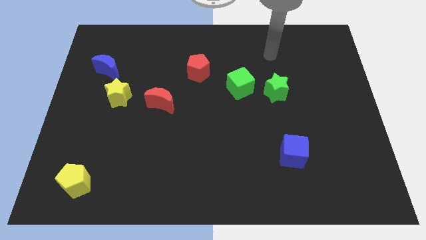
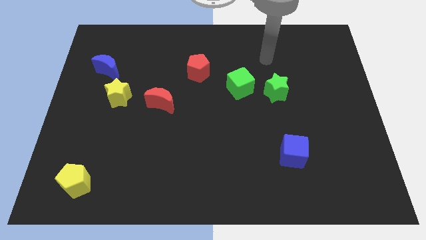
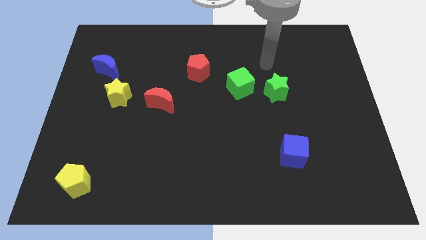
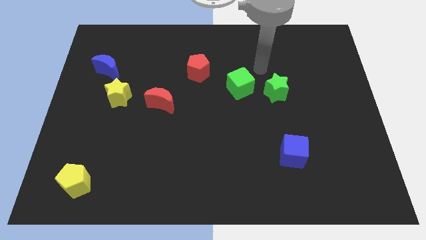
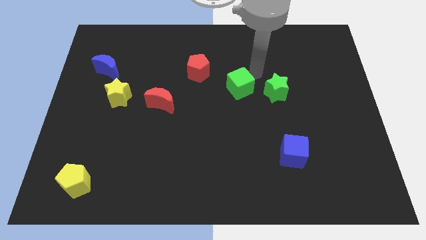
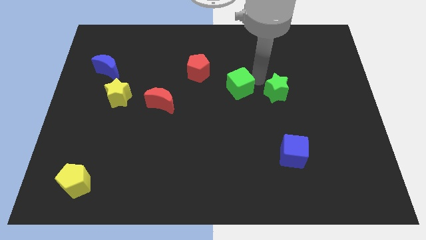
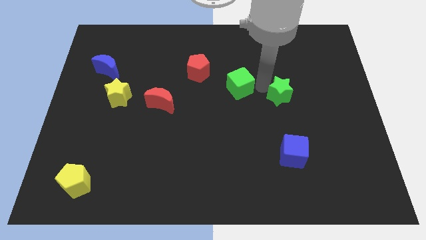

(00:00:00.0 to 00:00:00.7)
separate the green cube from the green star

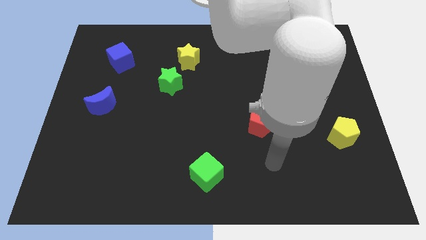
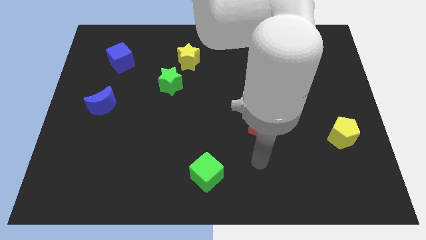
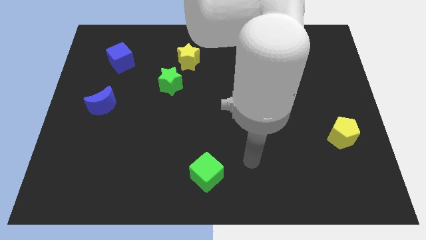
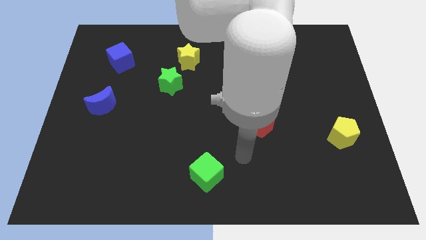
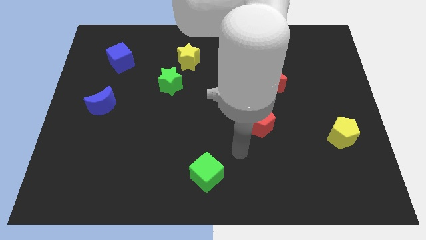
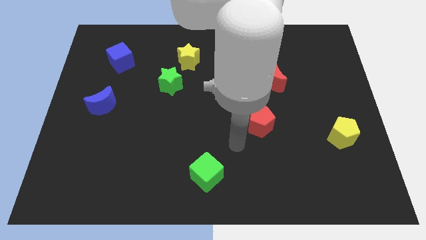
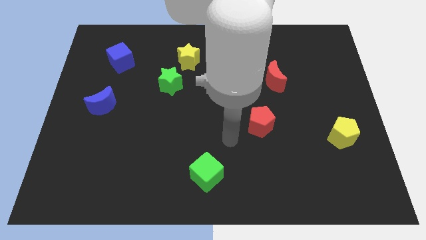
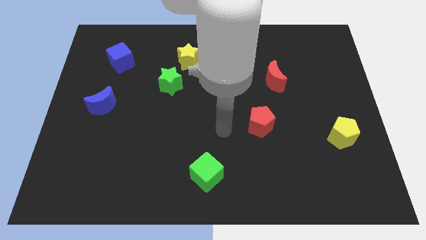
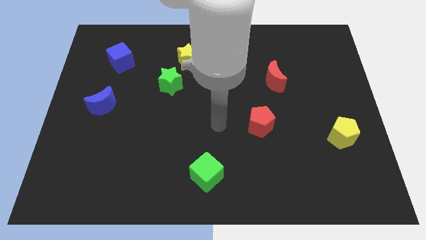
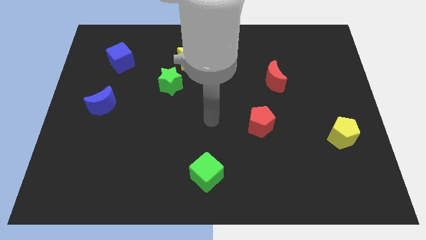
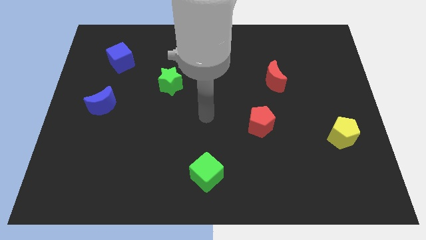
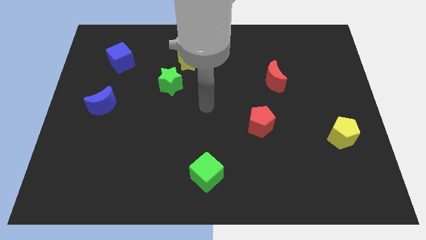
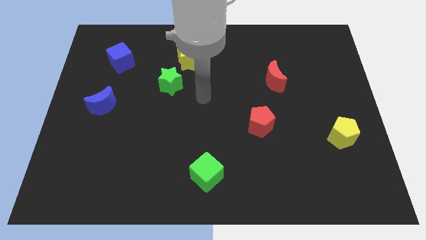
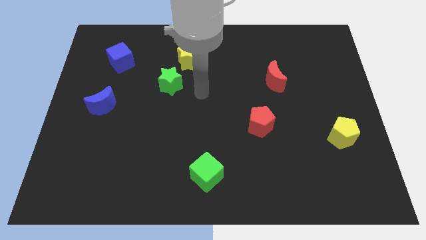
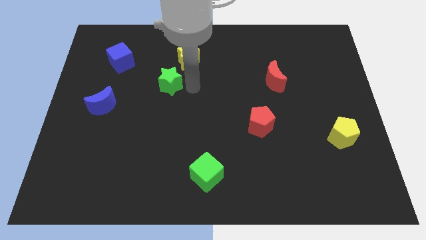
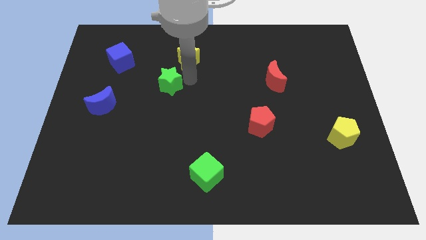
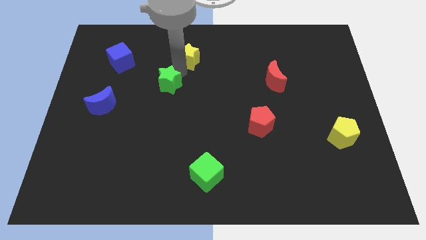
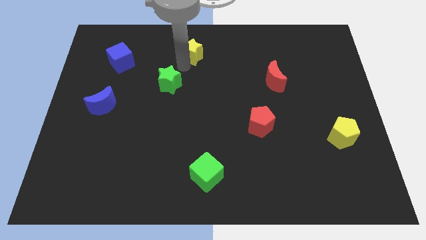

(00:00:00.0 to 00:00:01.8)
move the green star away from the yellow star

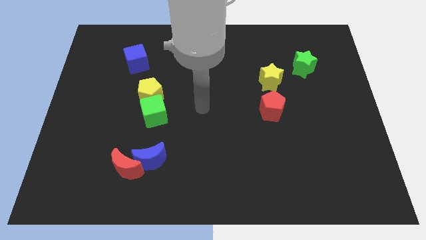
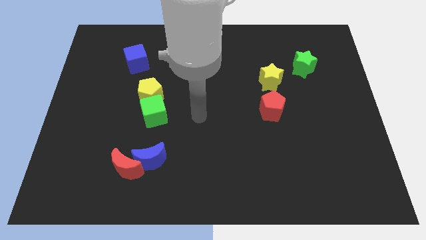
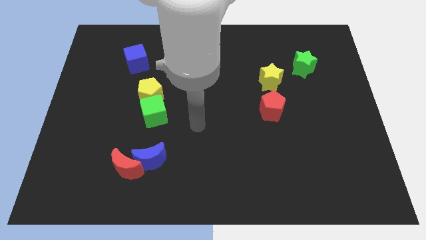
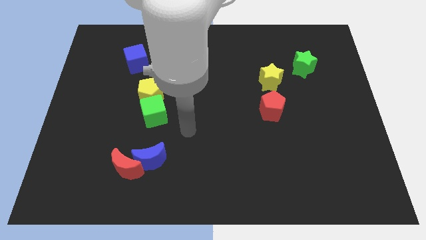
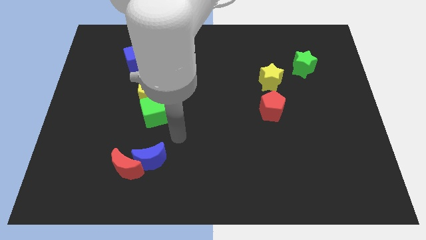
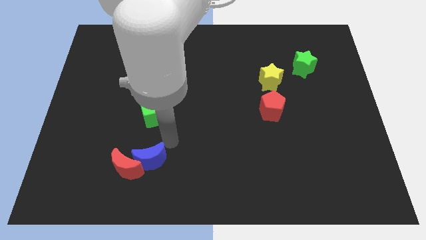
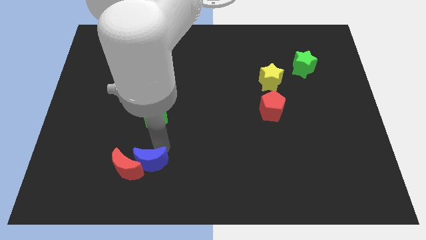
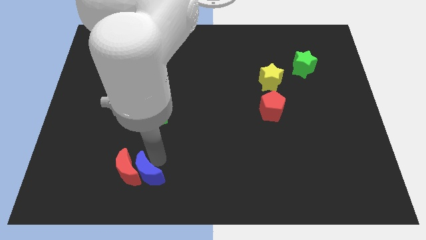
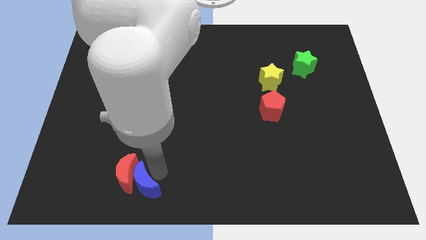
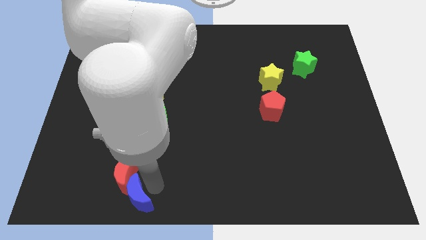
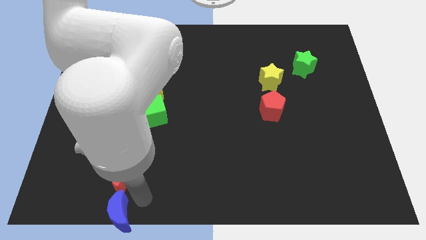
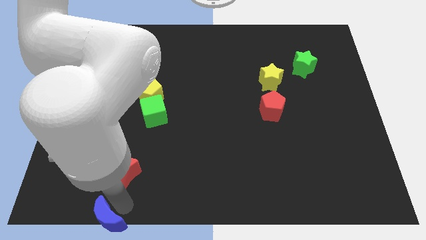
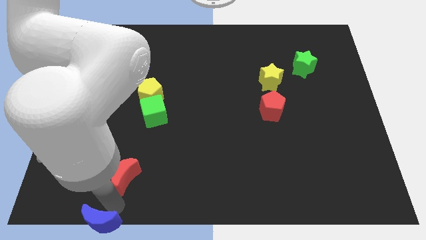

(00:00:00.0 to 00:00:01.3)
pull the red moon apart from the blue moon

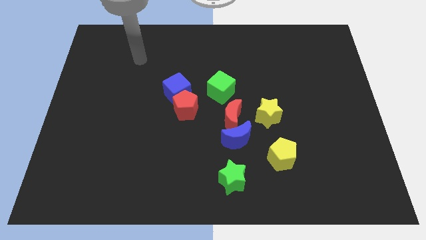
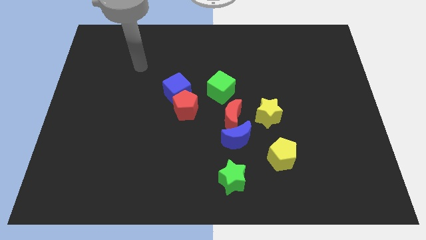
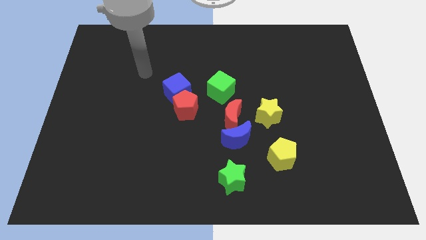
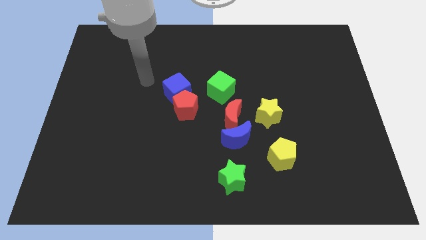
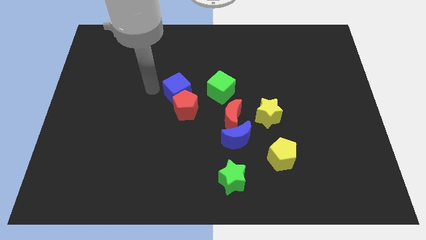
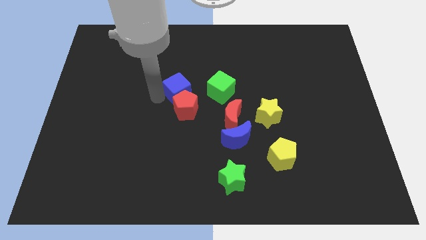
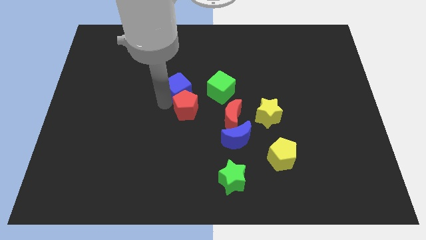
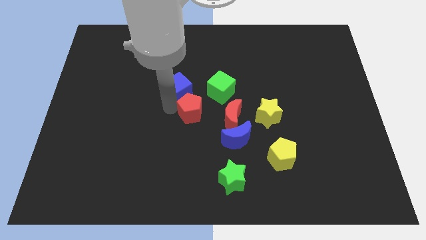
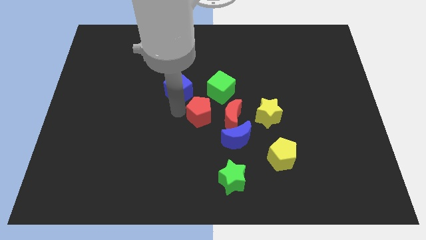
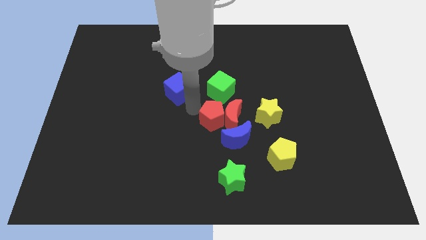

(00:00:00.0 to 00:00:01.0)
pull the blue cube apart from the red pentagon

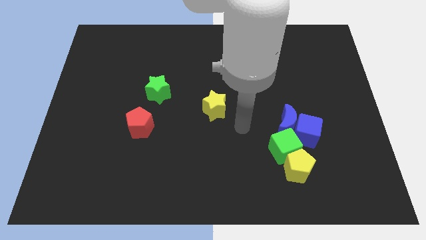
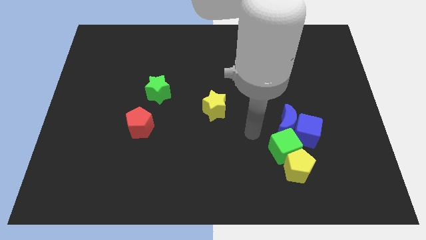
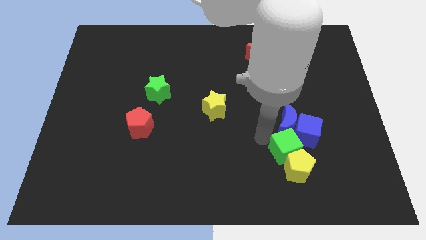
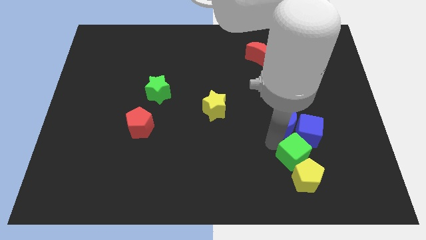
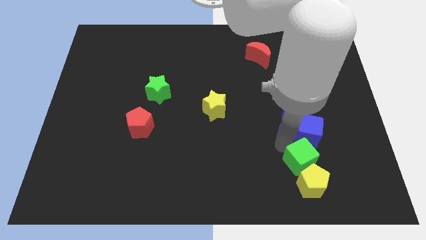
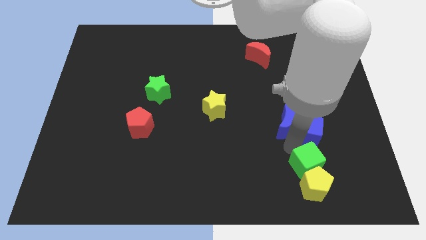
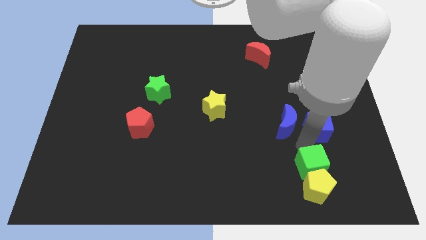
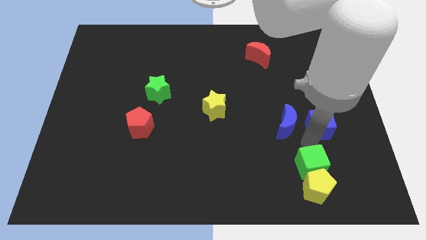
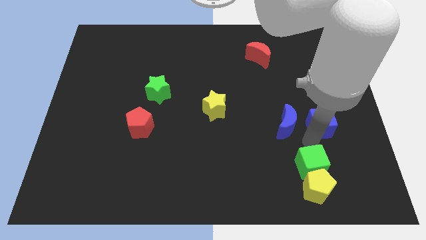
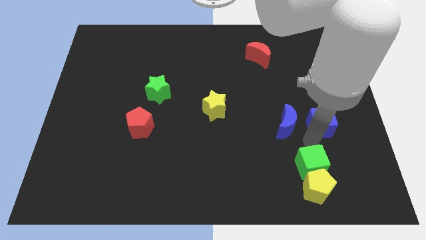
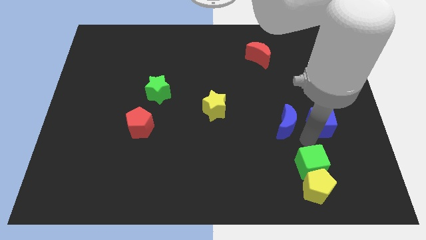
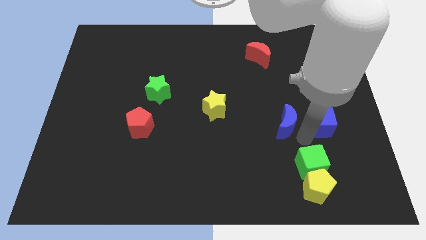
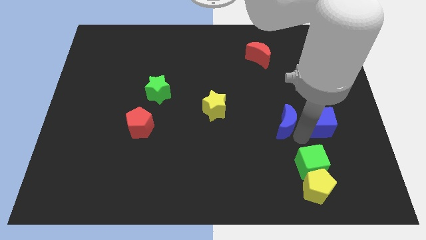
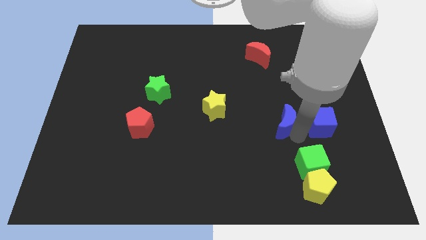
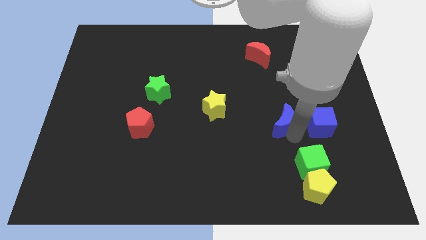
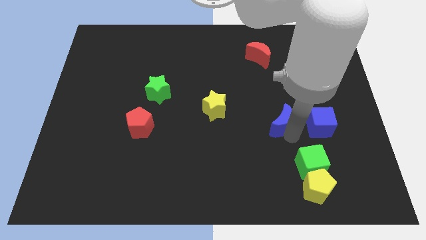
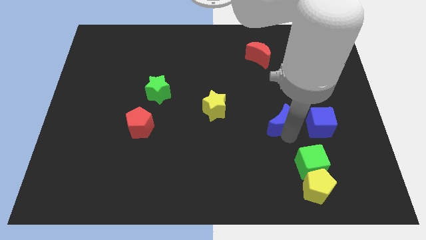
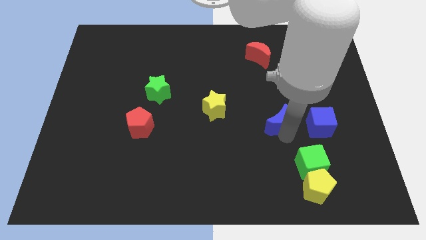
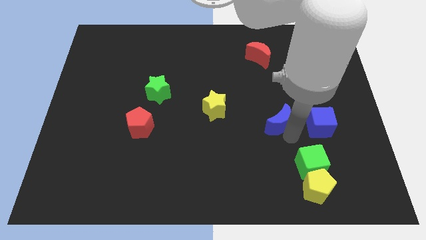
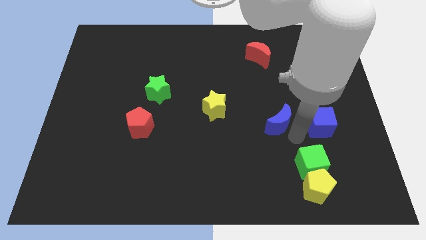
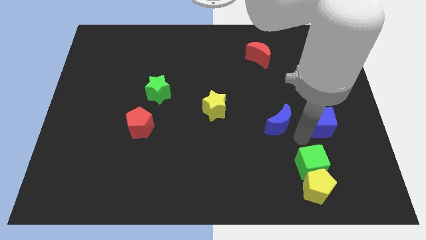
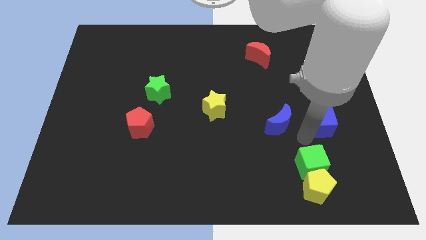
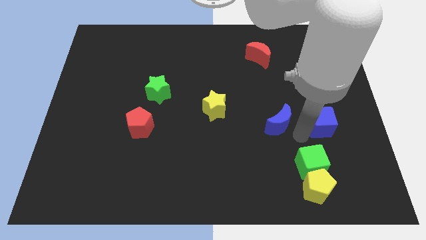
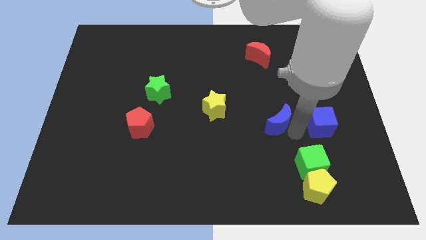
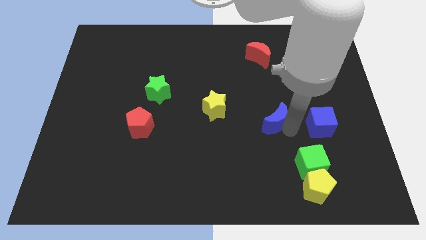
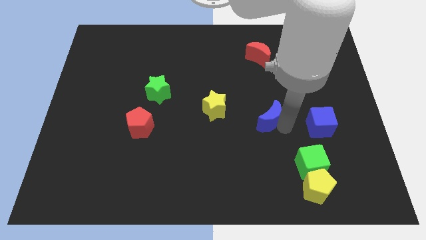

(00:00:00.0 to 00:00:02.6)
pull the blue moon apart from the blue cube and green cube

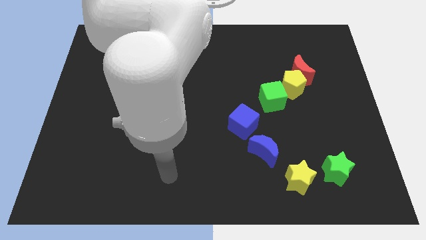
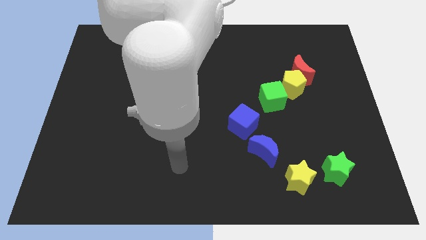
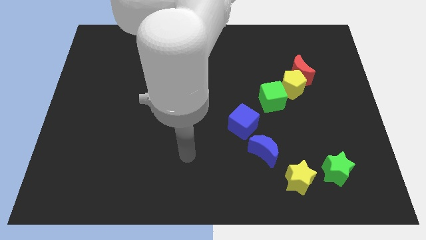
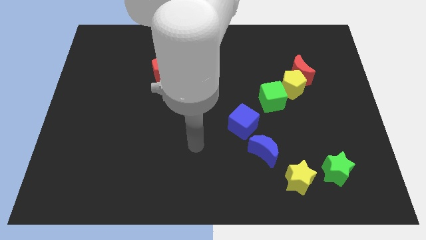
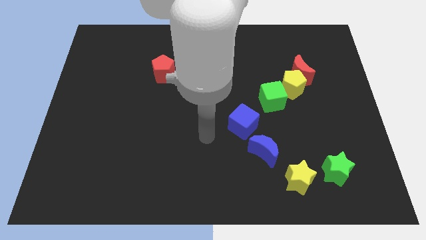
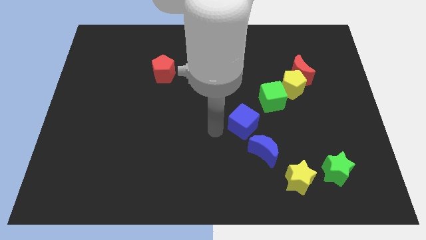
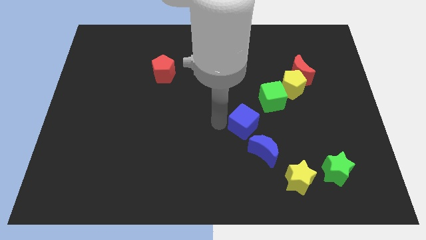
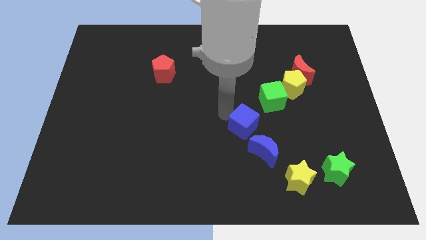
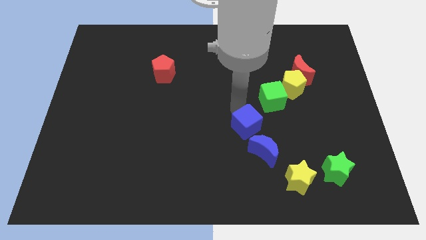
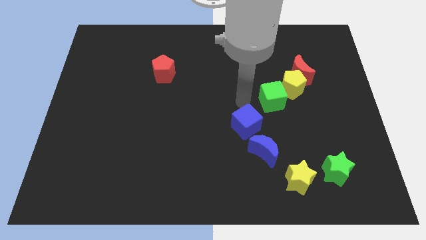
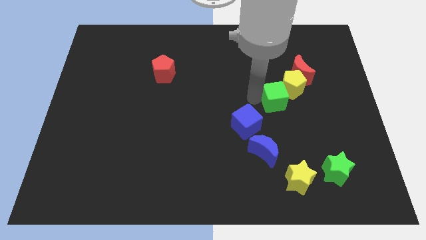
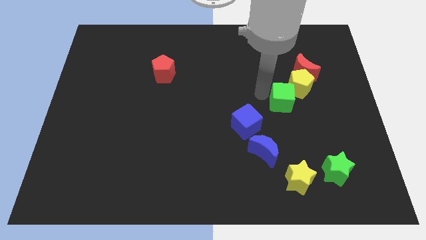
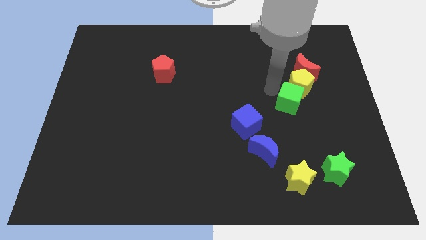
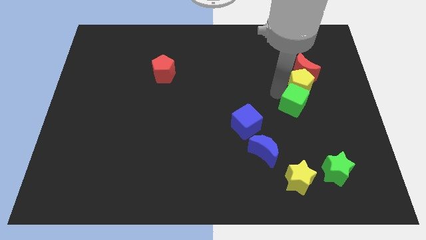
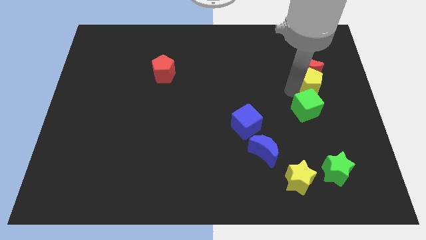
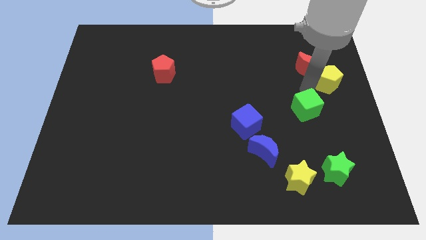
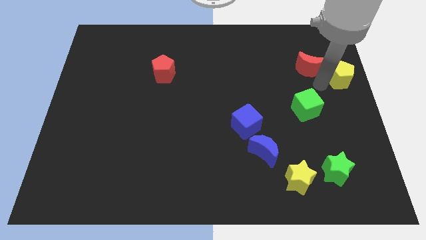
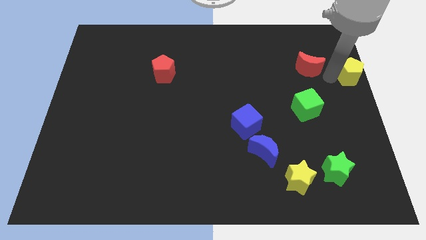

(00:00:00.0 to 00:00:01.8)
move the red moon away from the yellow pentagon
